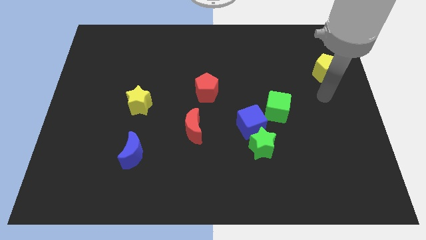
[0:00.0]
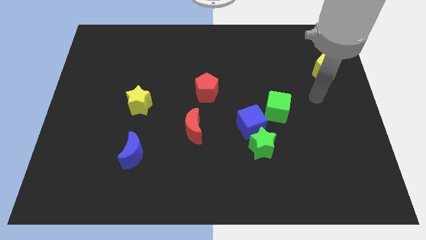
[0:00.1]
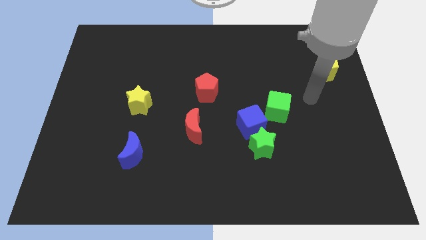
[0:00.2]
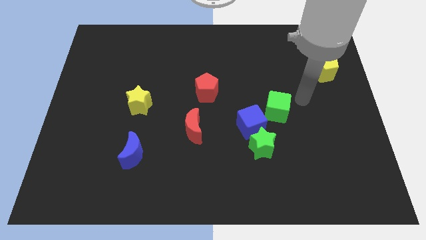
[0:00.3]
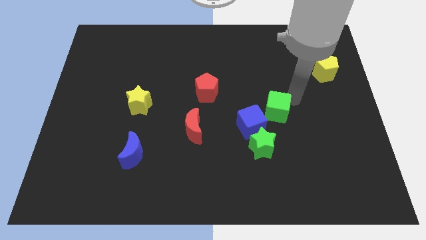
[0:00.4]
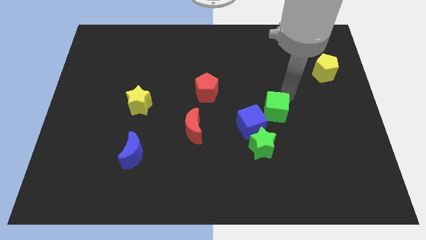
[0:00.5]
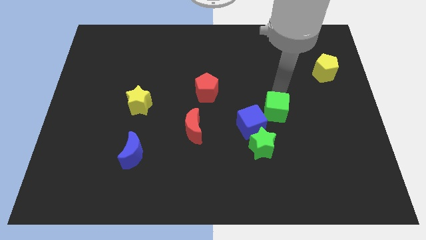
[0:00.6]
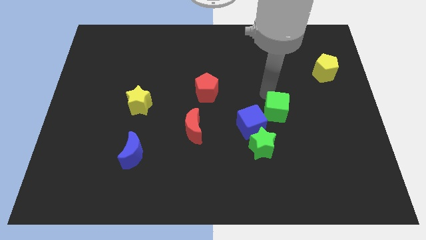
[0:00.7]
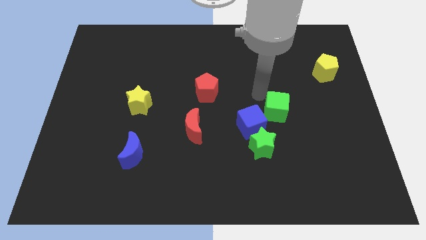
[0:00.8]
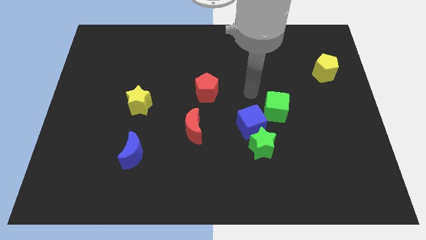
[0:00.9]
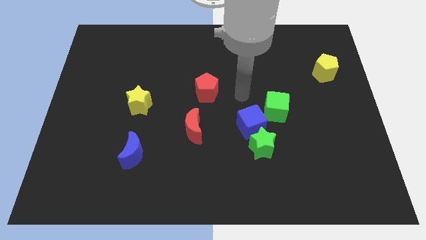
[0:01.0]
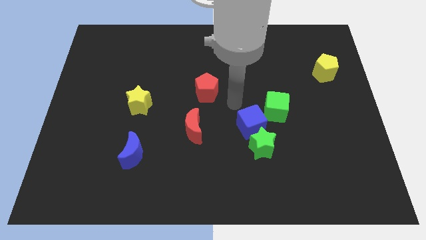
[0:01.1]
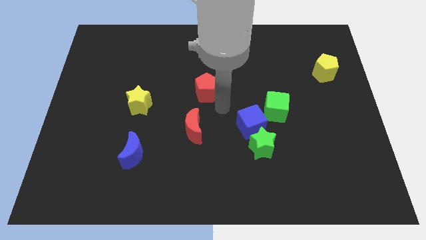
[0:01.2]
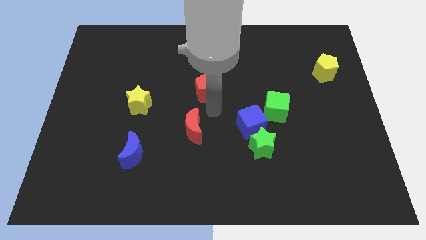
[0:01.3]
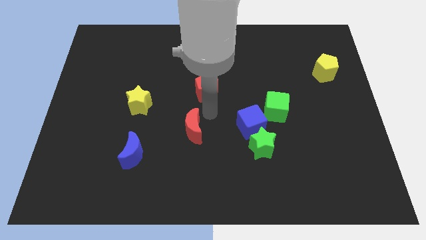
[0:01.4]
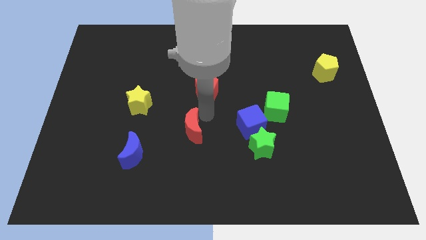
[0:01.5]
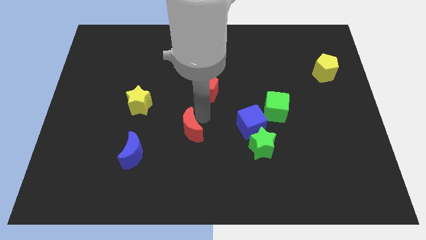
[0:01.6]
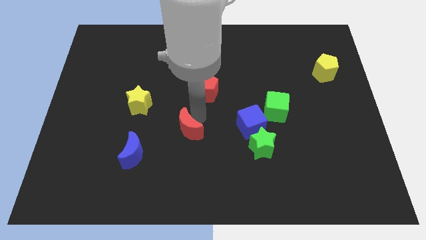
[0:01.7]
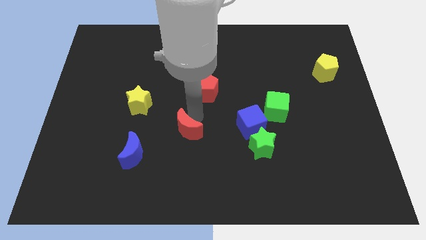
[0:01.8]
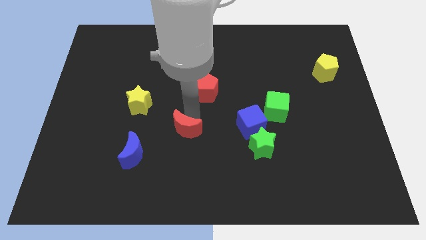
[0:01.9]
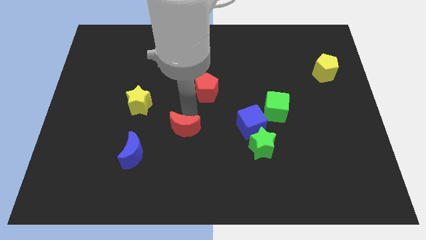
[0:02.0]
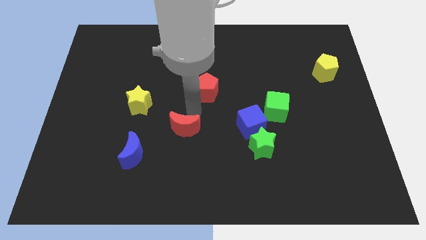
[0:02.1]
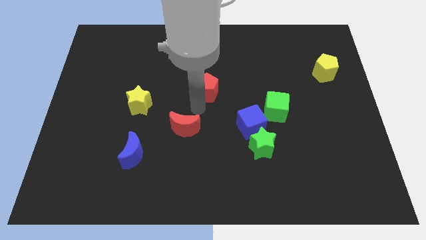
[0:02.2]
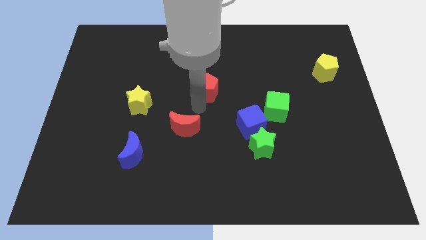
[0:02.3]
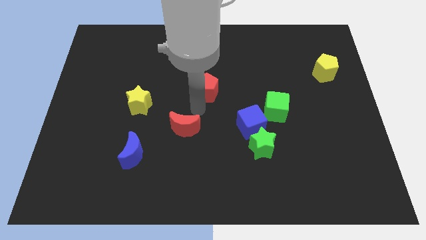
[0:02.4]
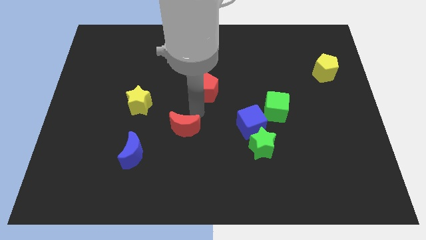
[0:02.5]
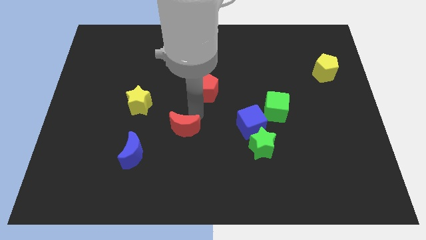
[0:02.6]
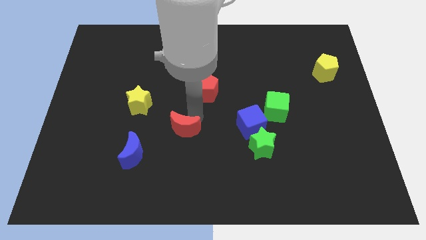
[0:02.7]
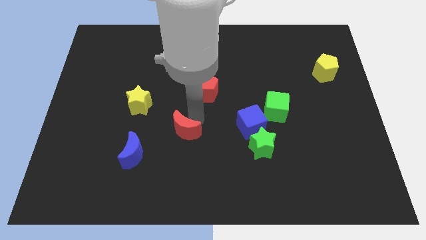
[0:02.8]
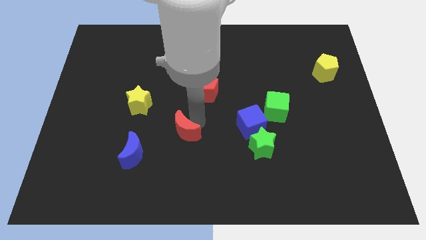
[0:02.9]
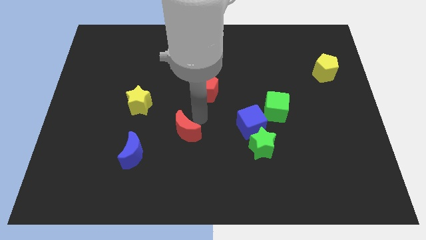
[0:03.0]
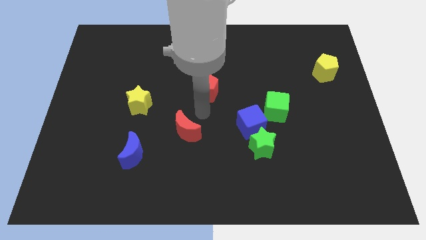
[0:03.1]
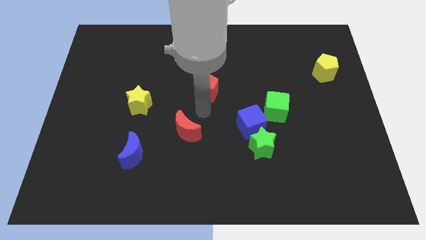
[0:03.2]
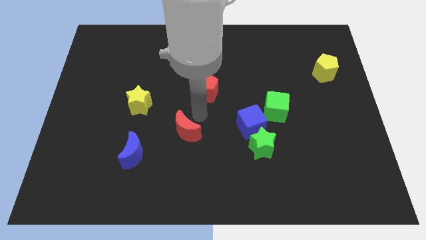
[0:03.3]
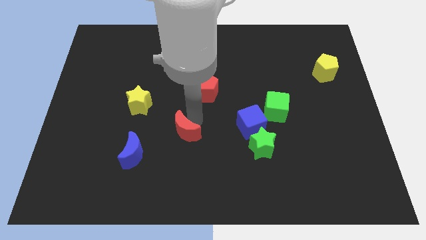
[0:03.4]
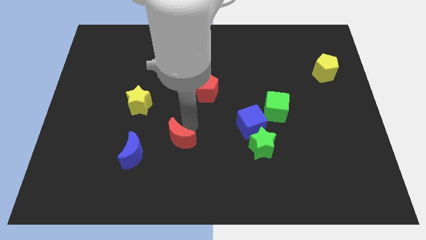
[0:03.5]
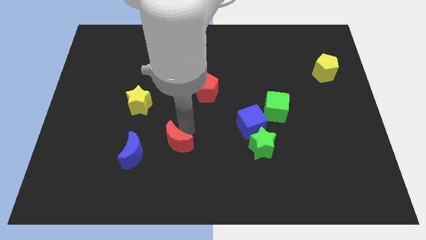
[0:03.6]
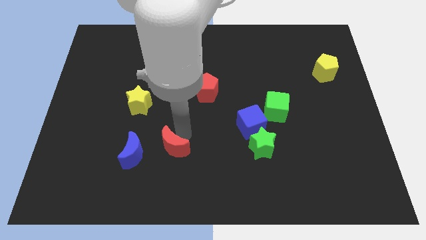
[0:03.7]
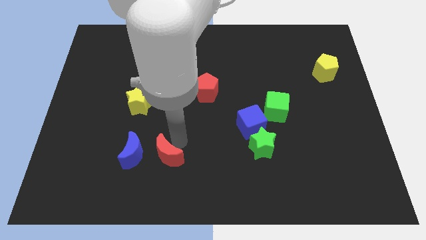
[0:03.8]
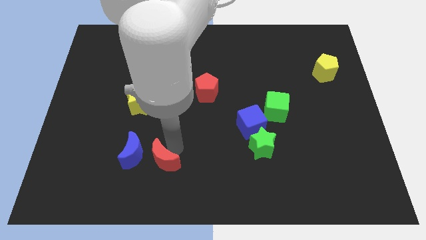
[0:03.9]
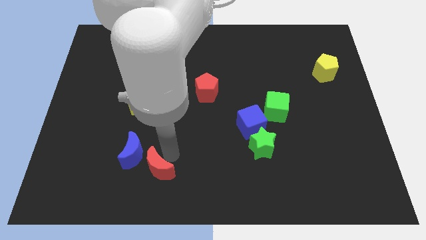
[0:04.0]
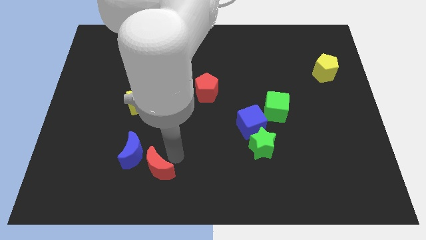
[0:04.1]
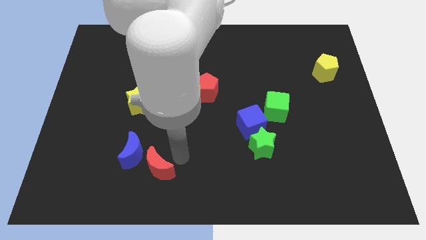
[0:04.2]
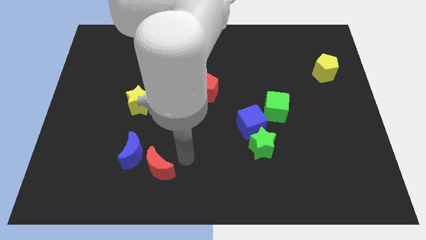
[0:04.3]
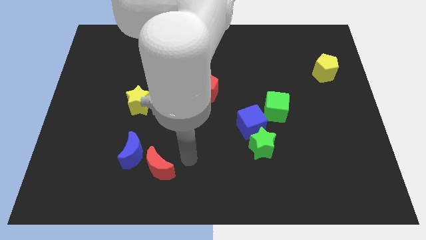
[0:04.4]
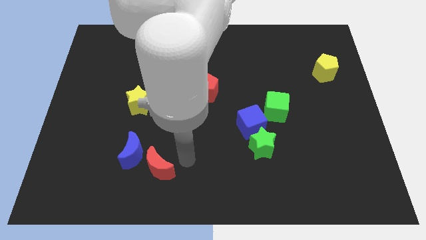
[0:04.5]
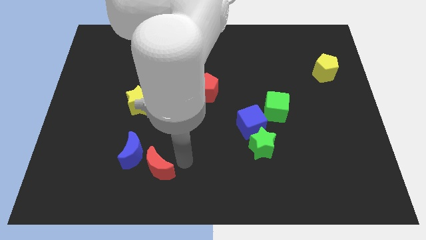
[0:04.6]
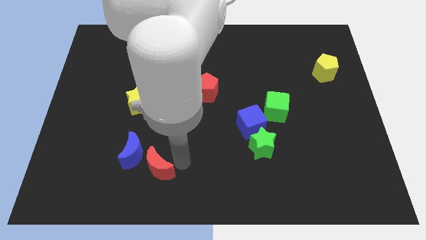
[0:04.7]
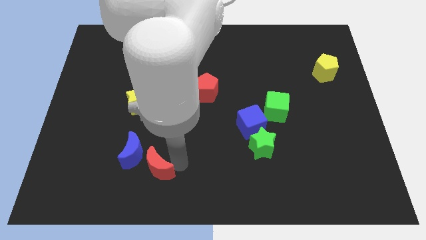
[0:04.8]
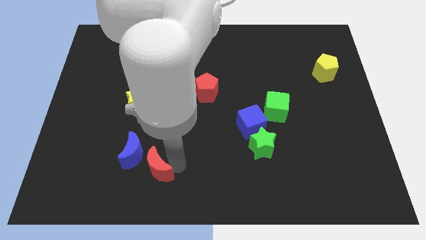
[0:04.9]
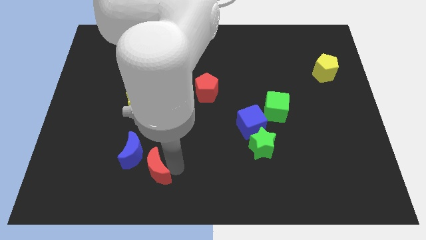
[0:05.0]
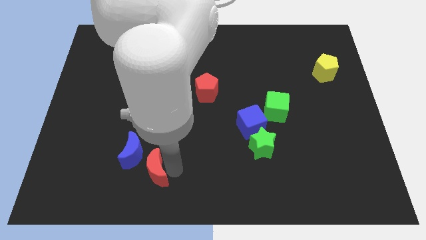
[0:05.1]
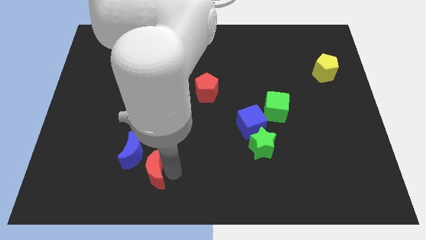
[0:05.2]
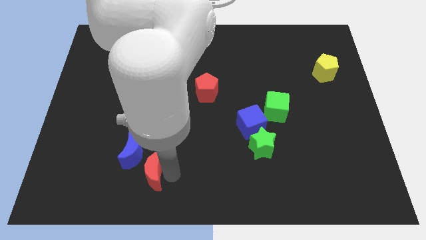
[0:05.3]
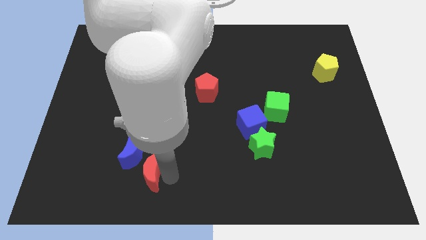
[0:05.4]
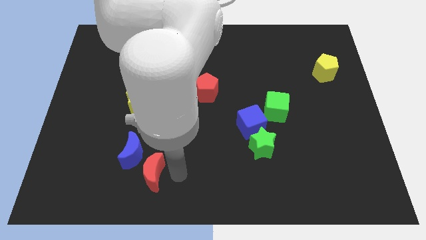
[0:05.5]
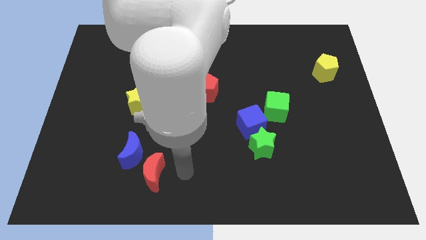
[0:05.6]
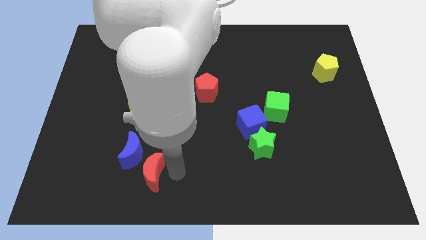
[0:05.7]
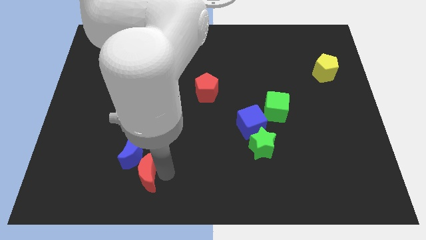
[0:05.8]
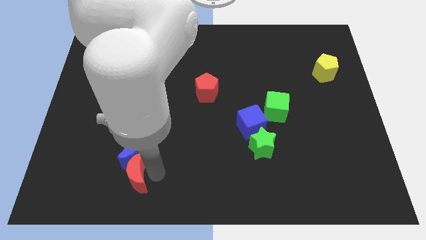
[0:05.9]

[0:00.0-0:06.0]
slide the red moon to the bottom left of the blue moon

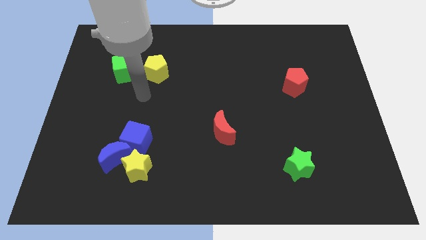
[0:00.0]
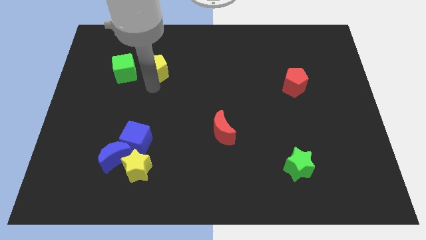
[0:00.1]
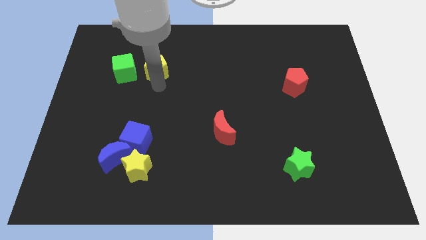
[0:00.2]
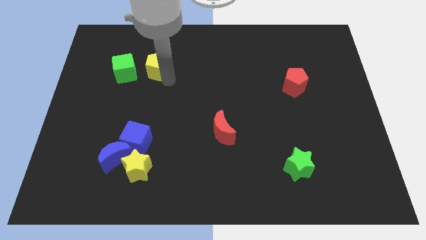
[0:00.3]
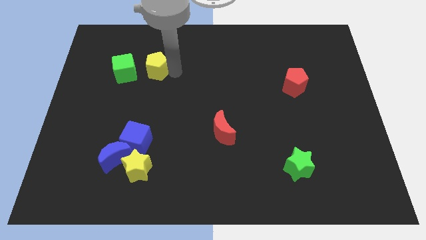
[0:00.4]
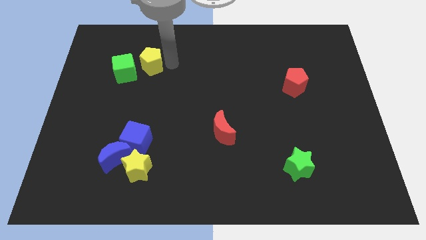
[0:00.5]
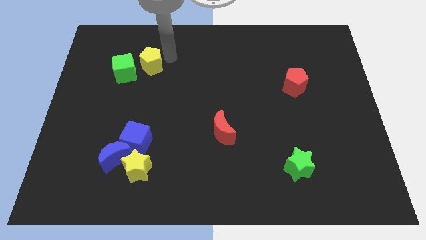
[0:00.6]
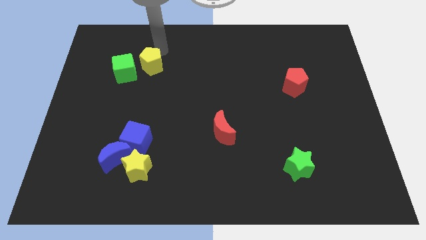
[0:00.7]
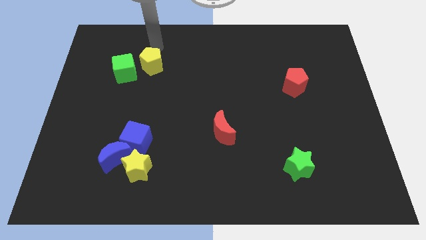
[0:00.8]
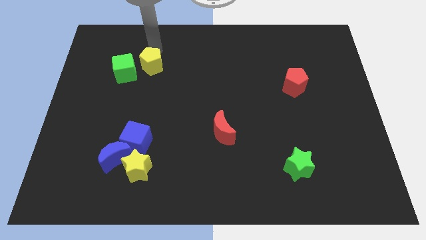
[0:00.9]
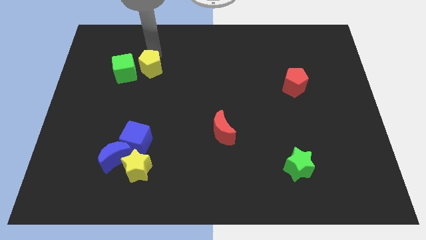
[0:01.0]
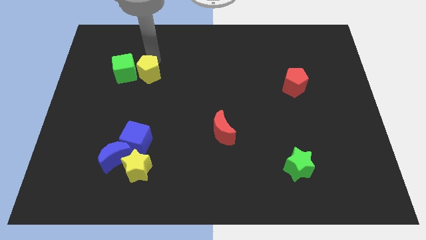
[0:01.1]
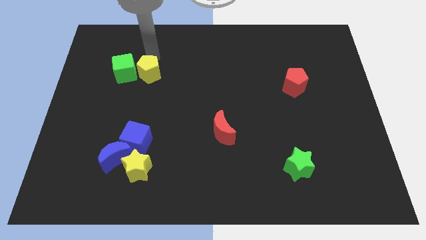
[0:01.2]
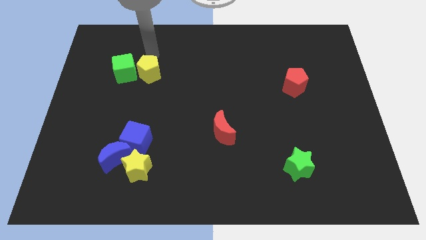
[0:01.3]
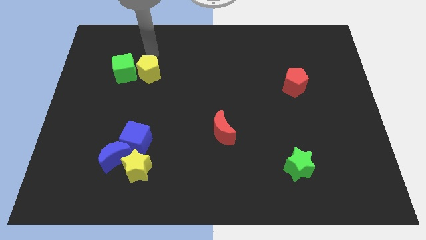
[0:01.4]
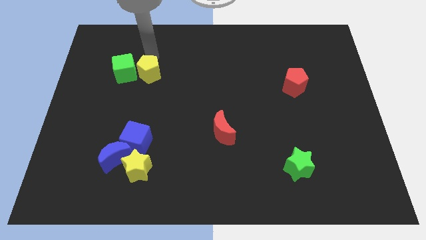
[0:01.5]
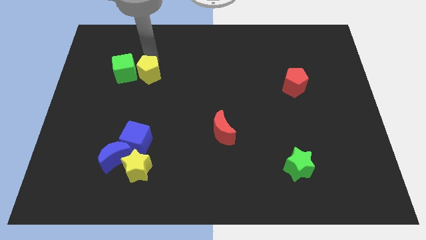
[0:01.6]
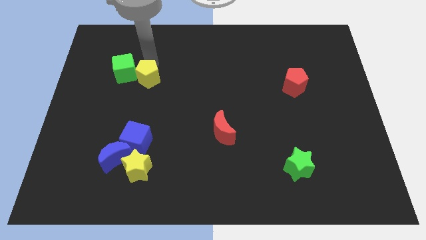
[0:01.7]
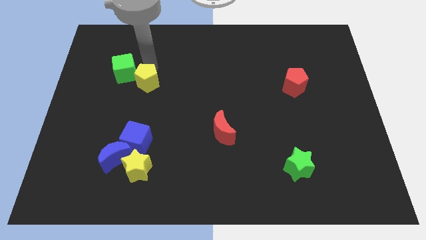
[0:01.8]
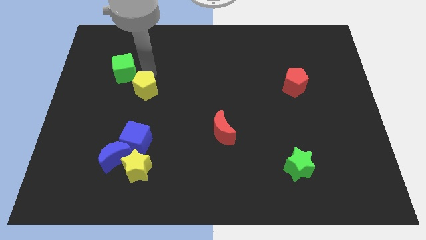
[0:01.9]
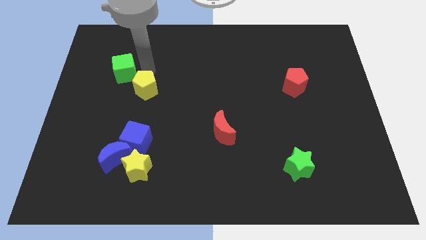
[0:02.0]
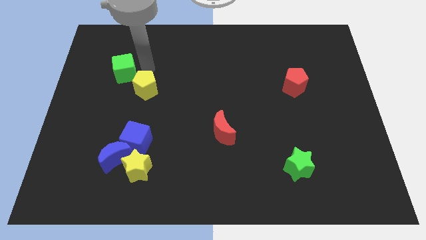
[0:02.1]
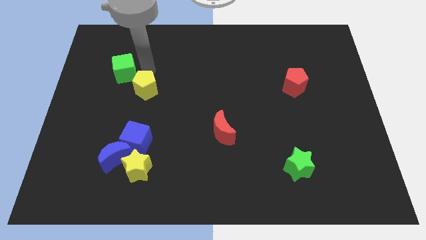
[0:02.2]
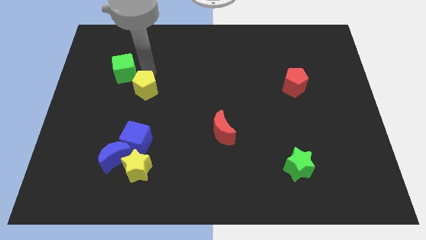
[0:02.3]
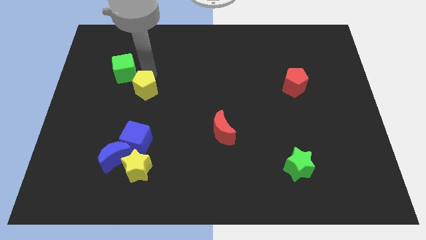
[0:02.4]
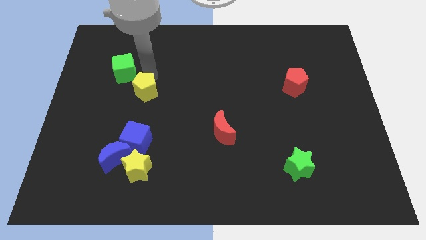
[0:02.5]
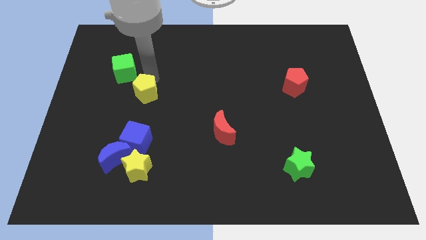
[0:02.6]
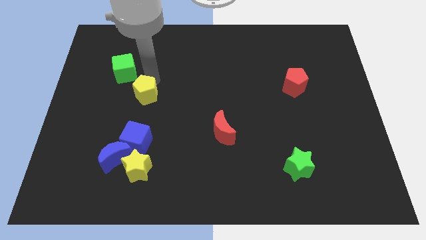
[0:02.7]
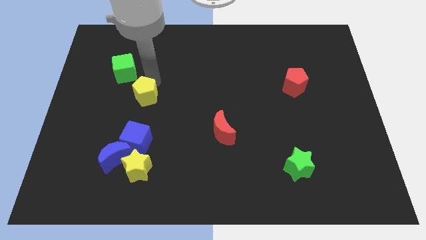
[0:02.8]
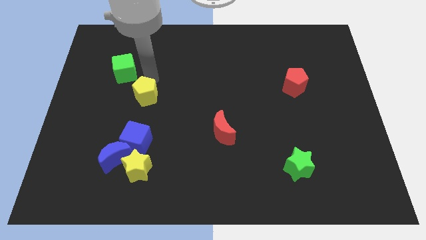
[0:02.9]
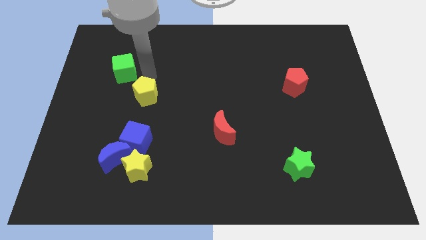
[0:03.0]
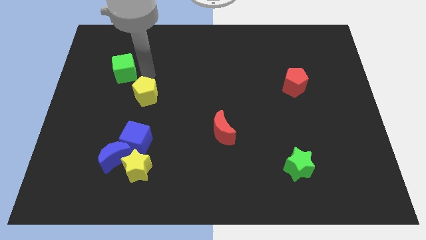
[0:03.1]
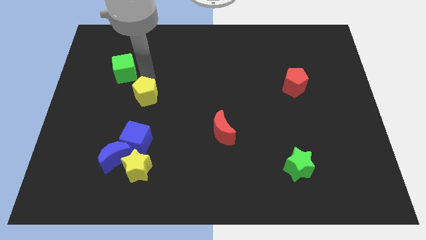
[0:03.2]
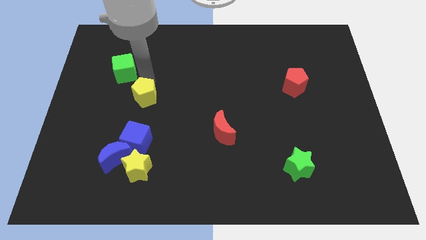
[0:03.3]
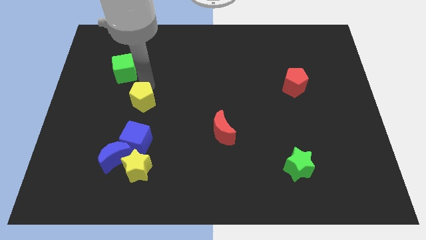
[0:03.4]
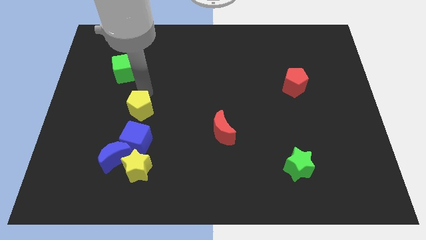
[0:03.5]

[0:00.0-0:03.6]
put the yellow pentagon to the top side of the yellow star
